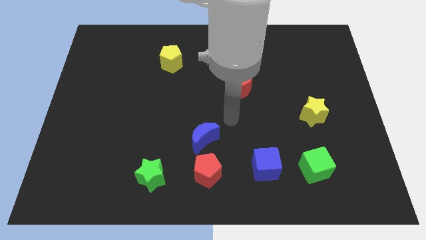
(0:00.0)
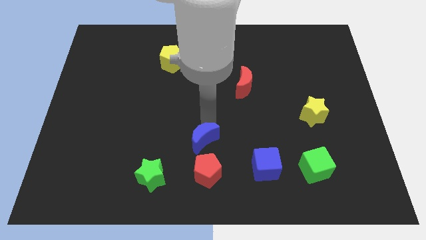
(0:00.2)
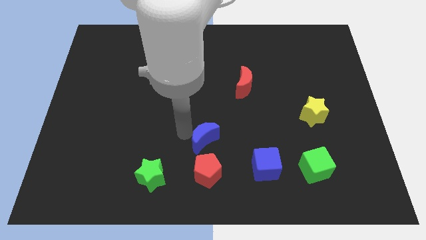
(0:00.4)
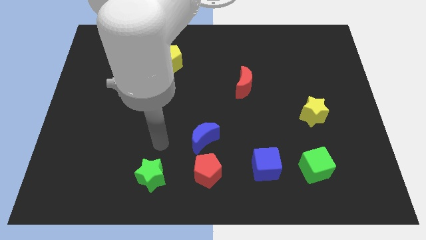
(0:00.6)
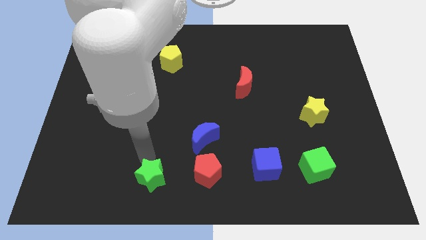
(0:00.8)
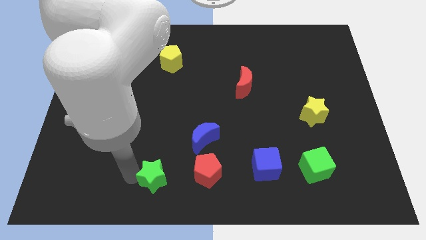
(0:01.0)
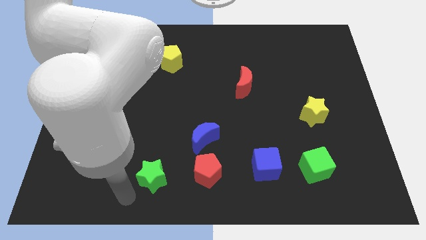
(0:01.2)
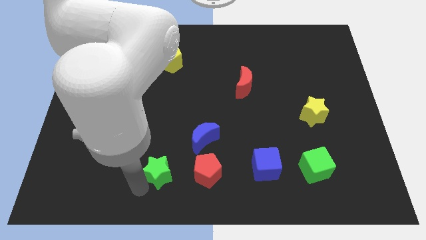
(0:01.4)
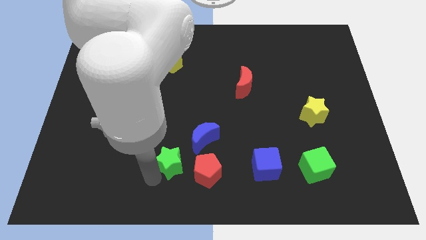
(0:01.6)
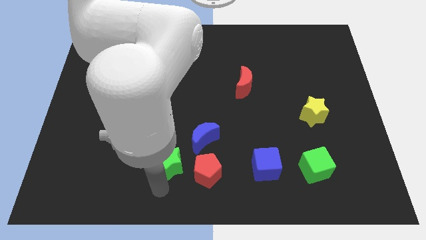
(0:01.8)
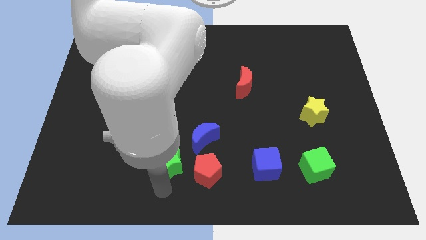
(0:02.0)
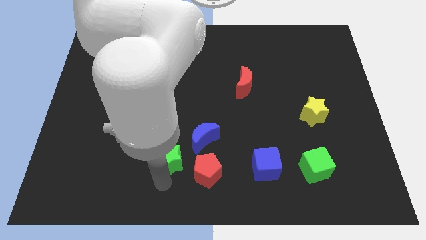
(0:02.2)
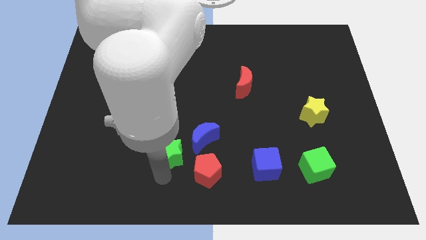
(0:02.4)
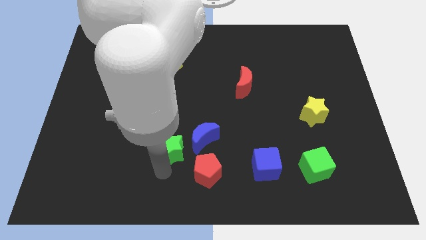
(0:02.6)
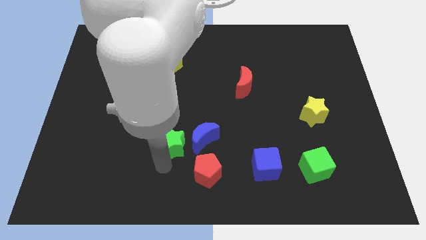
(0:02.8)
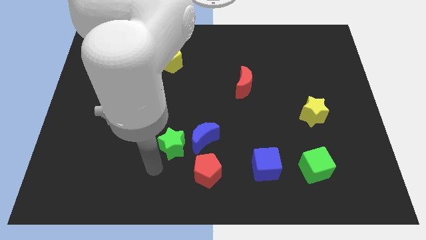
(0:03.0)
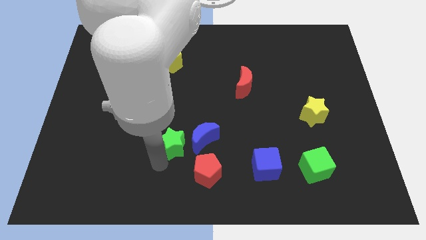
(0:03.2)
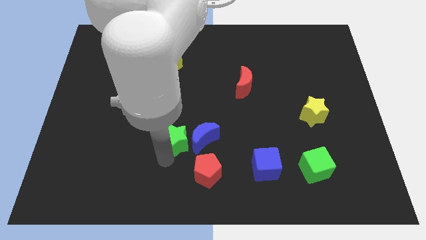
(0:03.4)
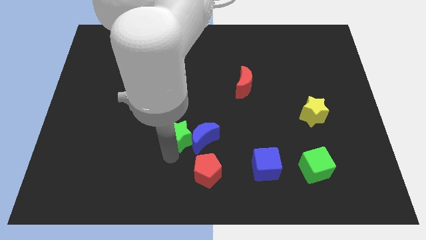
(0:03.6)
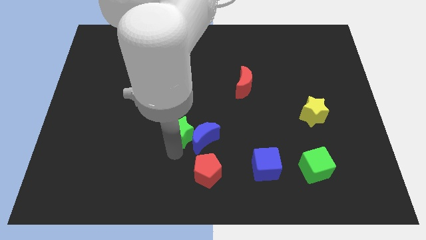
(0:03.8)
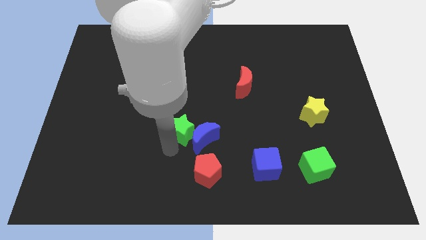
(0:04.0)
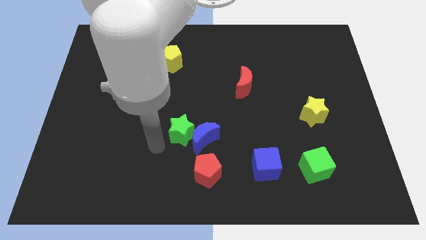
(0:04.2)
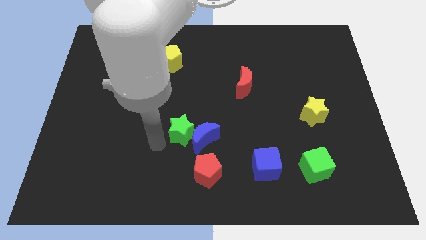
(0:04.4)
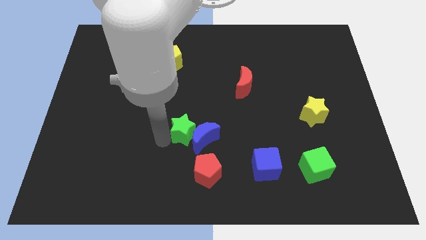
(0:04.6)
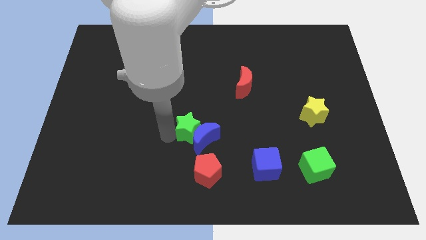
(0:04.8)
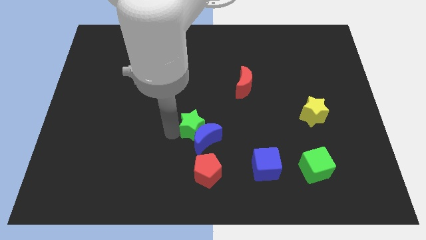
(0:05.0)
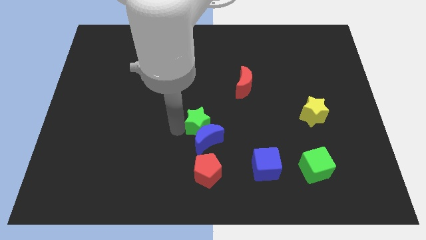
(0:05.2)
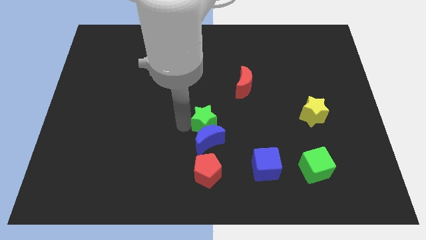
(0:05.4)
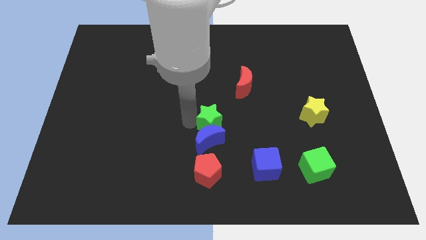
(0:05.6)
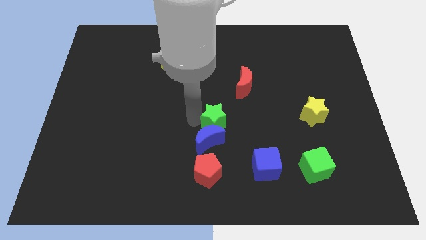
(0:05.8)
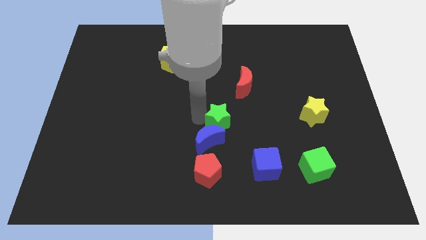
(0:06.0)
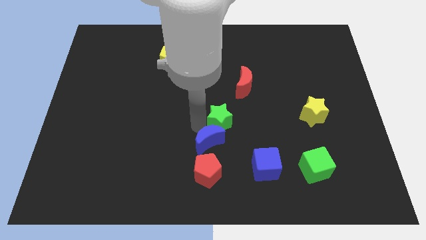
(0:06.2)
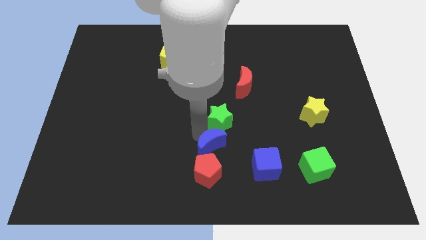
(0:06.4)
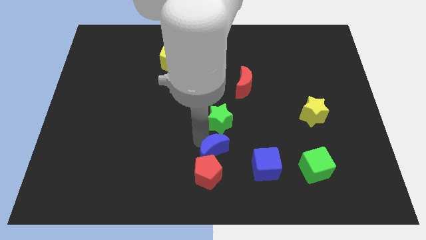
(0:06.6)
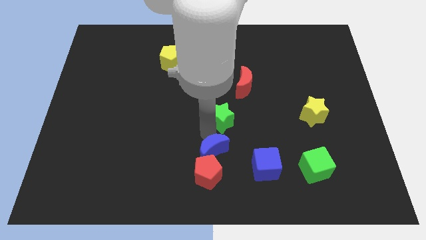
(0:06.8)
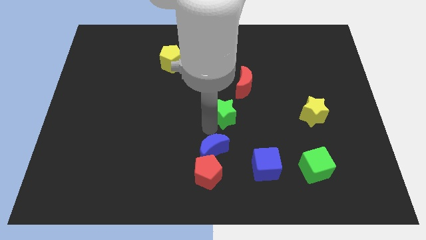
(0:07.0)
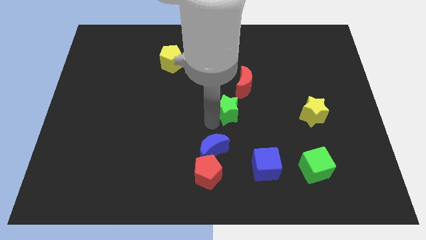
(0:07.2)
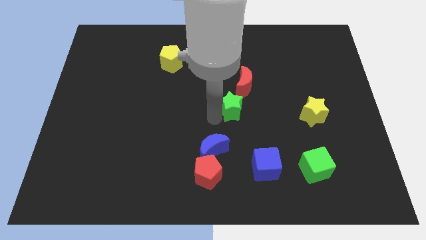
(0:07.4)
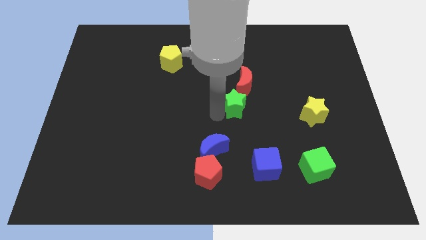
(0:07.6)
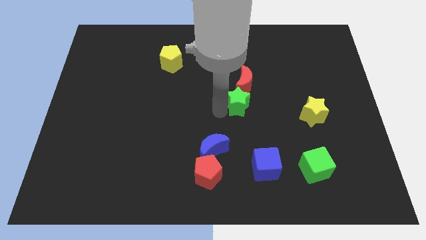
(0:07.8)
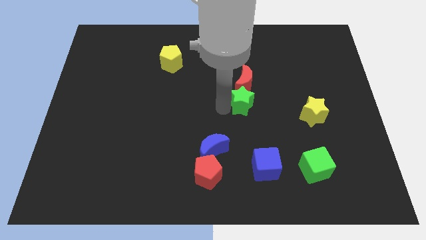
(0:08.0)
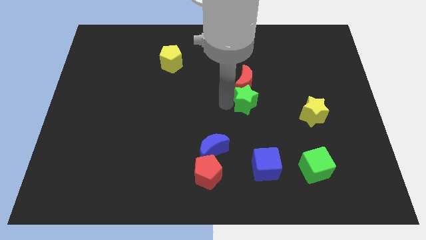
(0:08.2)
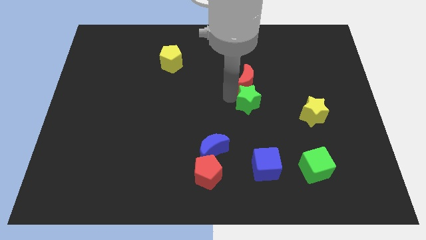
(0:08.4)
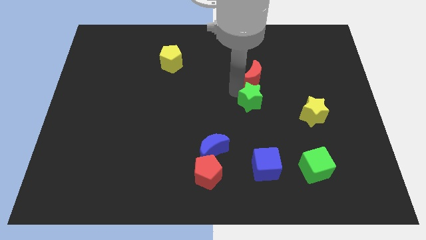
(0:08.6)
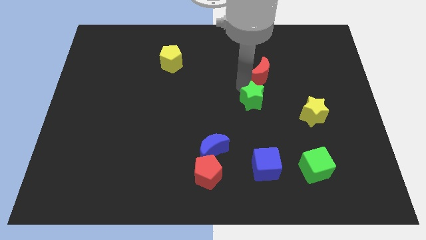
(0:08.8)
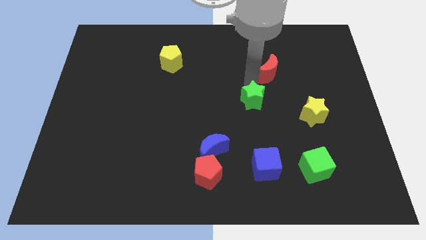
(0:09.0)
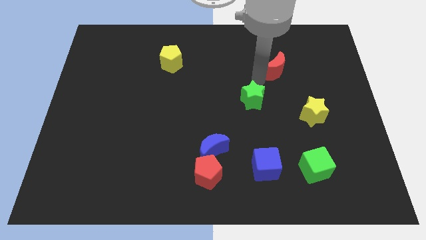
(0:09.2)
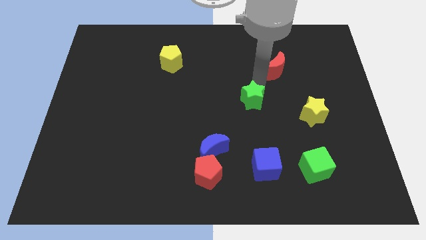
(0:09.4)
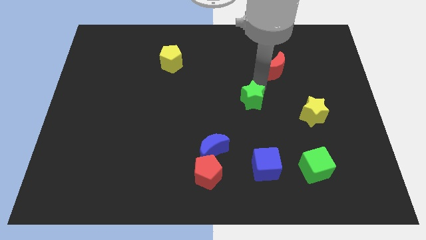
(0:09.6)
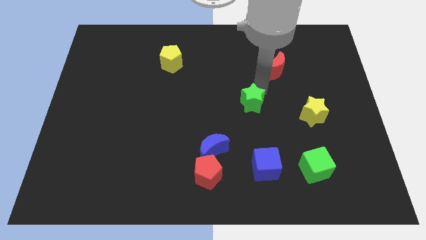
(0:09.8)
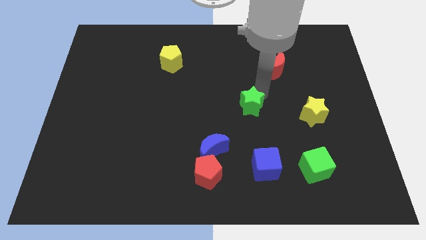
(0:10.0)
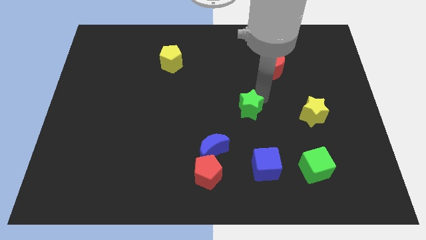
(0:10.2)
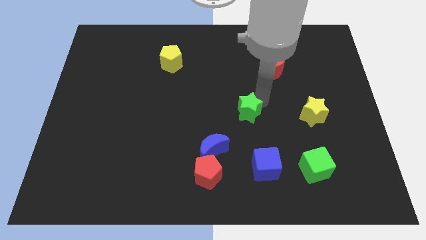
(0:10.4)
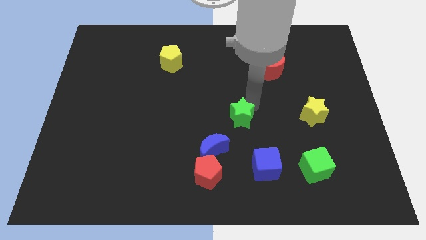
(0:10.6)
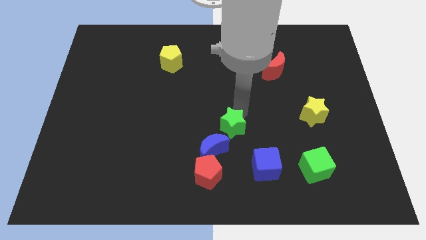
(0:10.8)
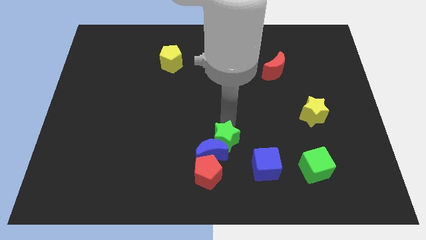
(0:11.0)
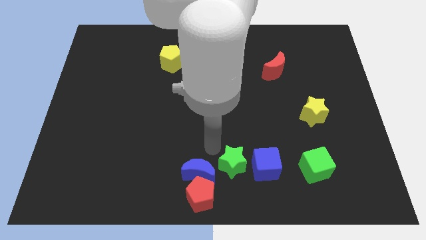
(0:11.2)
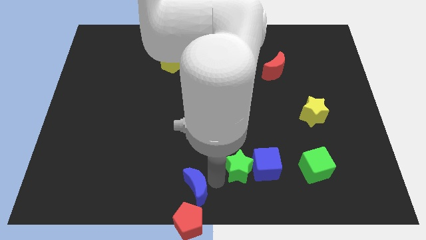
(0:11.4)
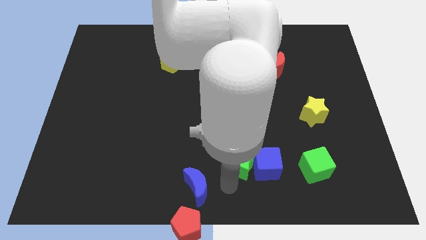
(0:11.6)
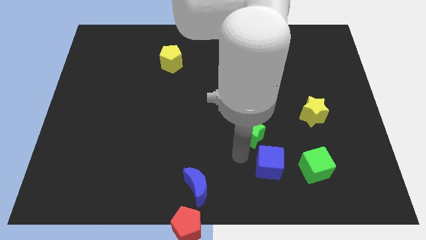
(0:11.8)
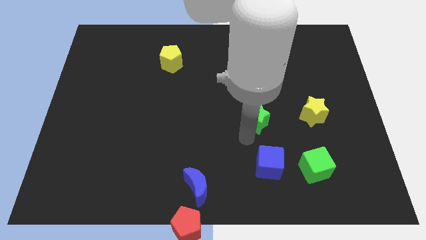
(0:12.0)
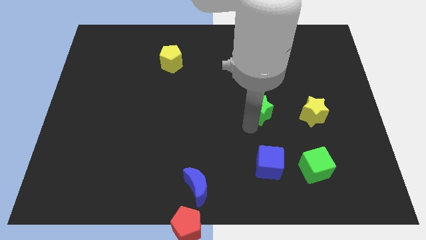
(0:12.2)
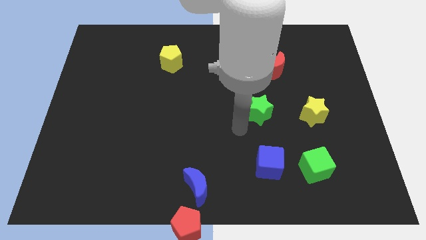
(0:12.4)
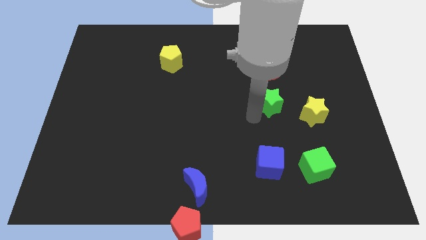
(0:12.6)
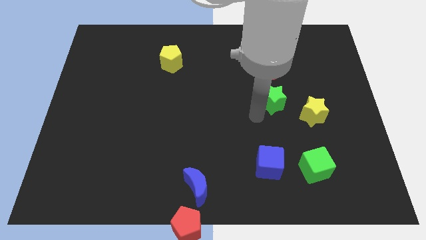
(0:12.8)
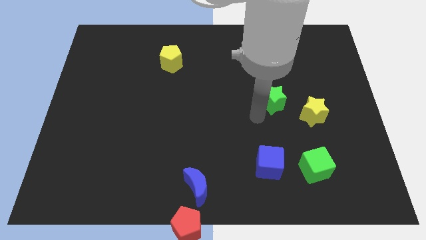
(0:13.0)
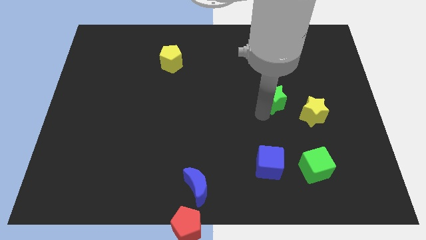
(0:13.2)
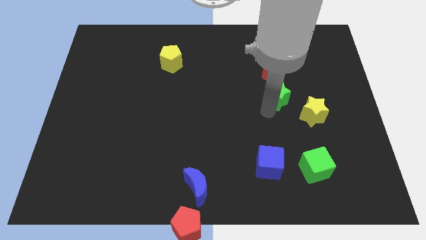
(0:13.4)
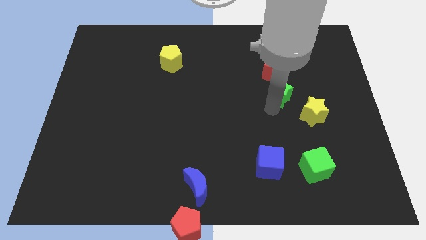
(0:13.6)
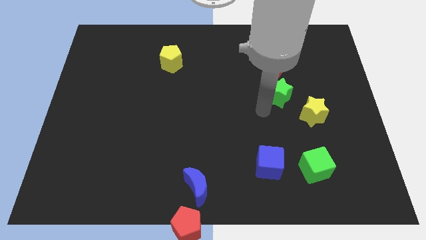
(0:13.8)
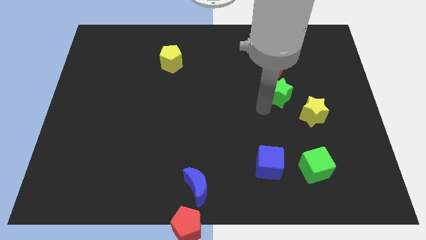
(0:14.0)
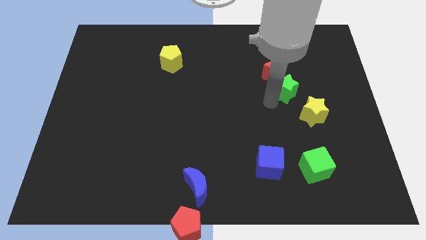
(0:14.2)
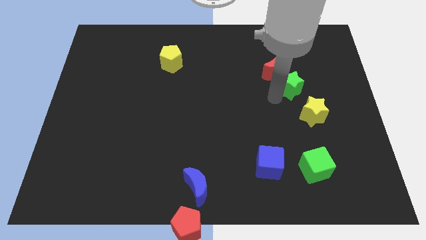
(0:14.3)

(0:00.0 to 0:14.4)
put the green star to the top side of the yellow star
